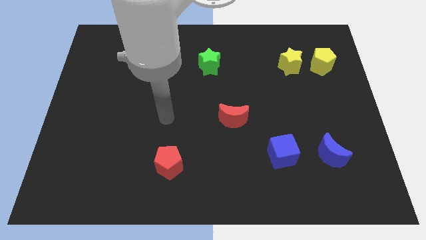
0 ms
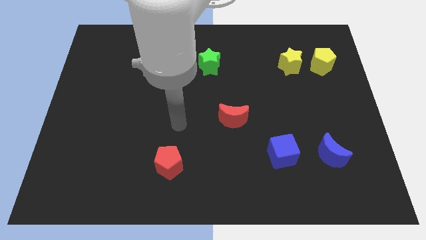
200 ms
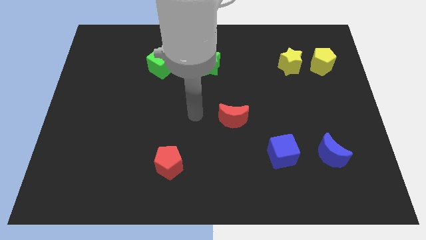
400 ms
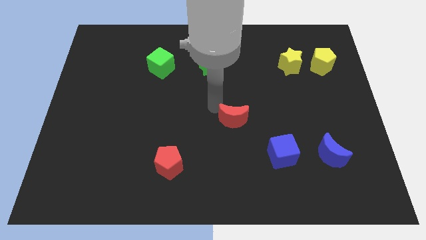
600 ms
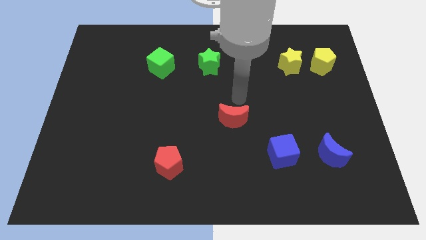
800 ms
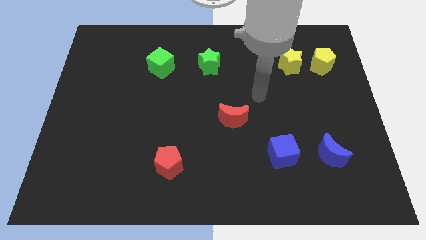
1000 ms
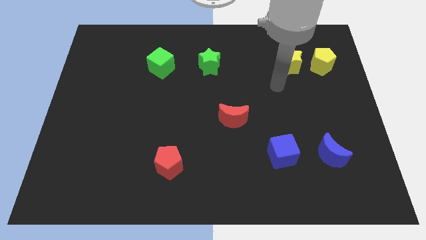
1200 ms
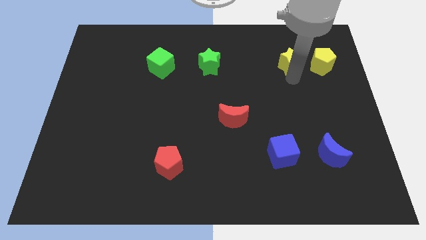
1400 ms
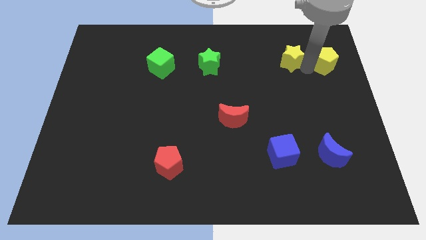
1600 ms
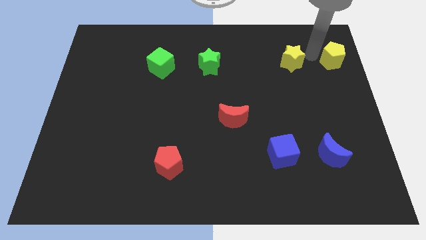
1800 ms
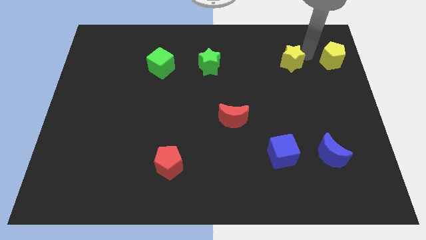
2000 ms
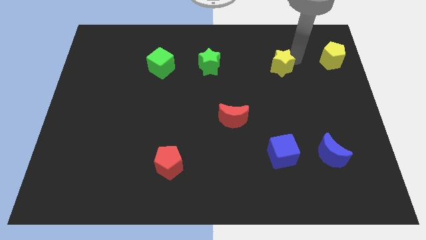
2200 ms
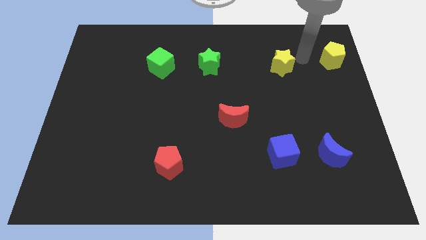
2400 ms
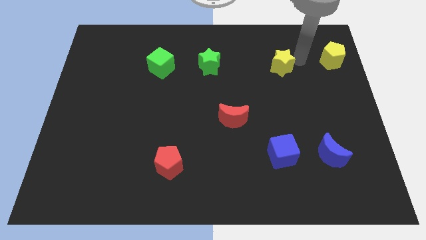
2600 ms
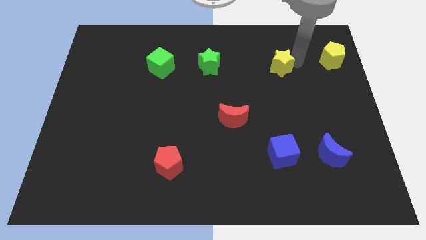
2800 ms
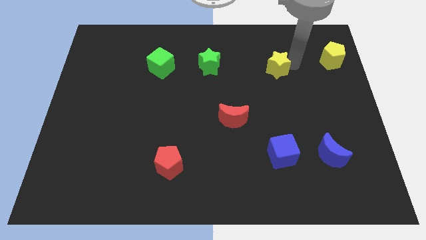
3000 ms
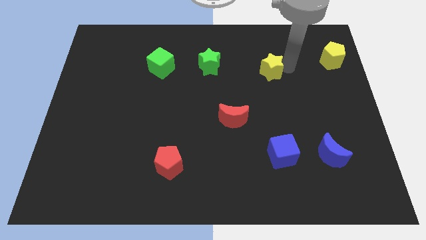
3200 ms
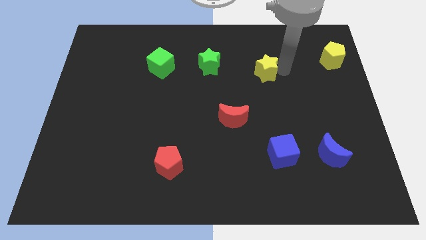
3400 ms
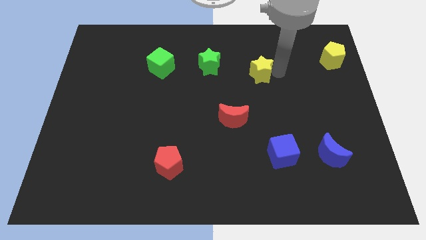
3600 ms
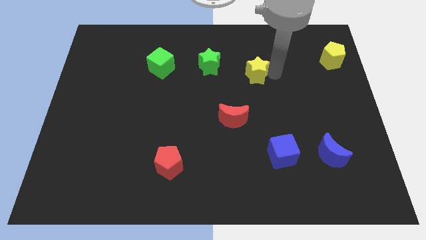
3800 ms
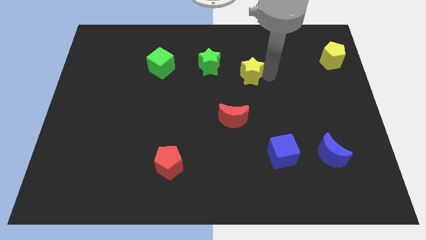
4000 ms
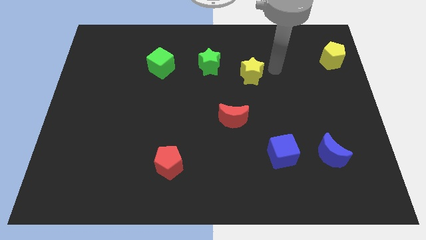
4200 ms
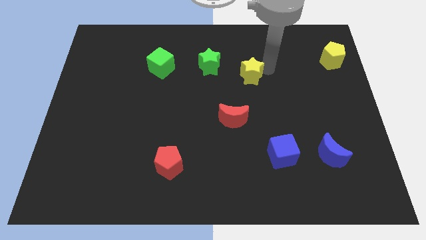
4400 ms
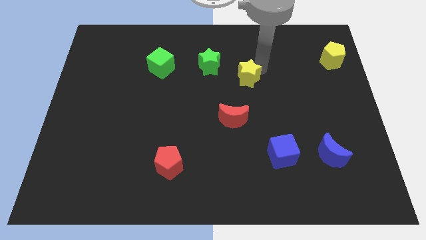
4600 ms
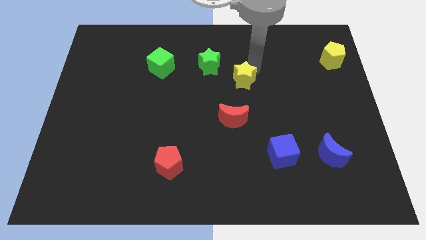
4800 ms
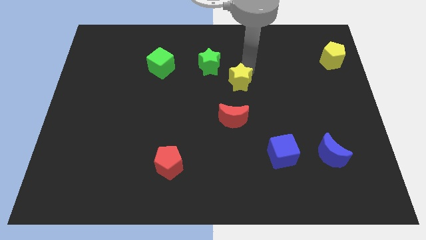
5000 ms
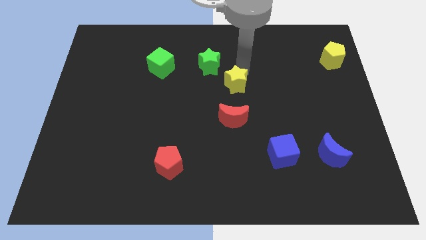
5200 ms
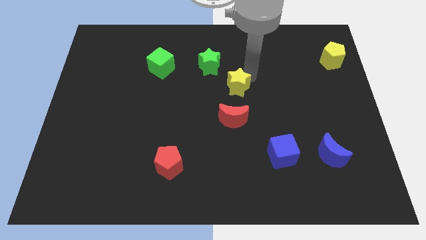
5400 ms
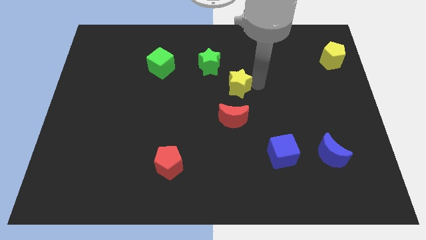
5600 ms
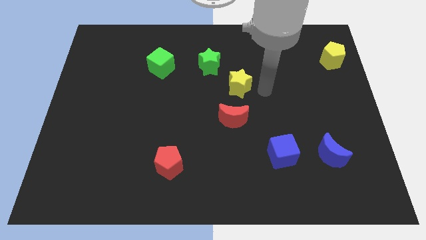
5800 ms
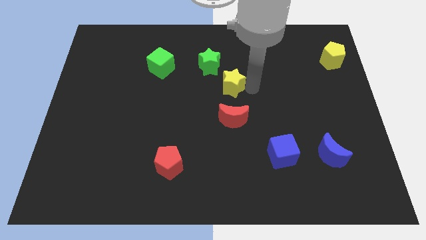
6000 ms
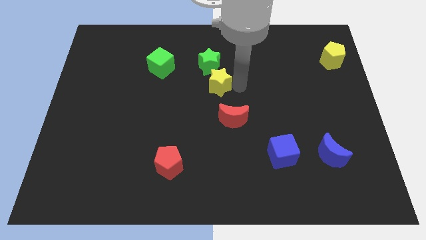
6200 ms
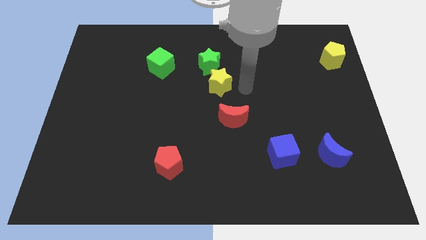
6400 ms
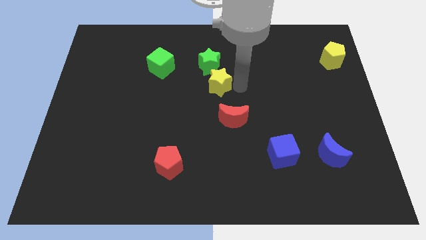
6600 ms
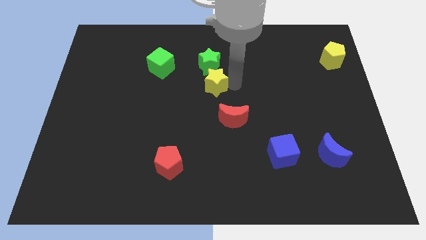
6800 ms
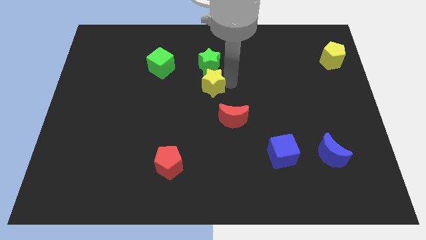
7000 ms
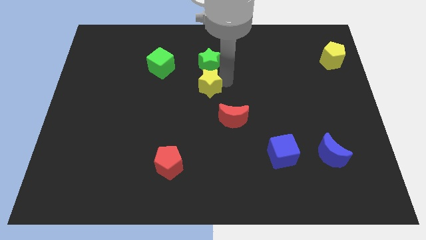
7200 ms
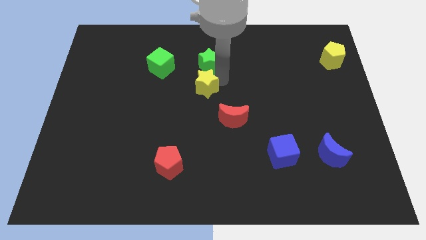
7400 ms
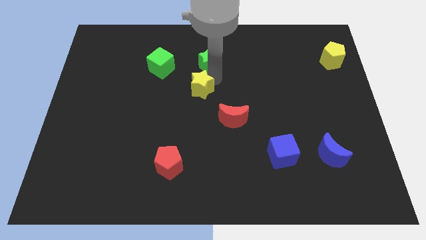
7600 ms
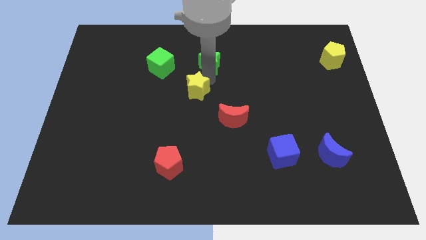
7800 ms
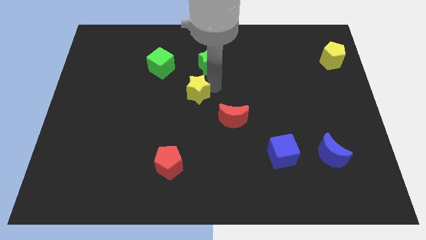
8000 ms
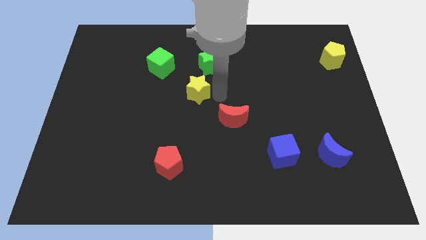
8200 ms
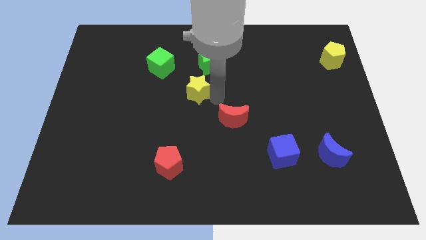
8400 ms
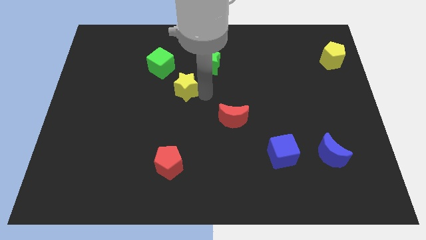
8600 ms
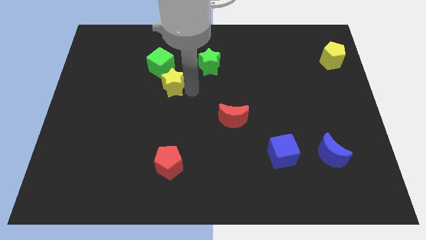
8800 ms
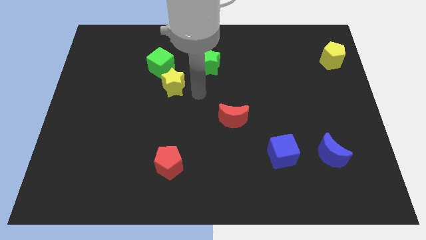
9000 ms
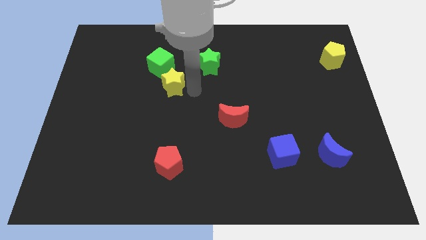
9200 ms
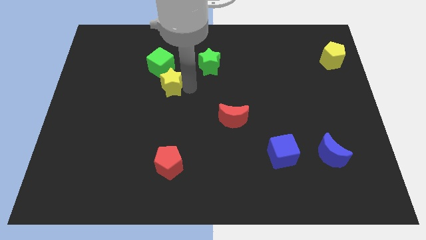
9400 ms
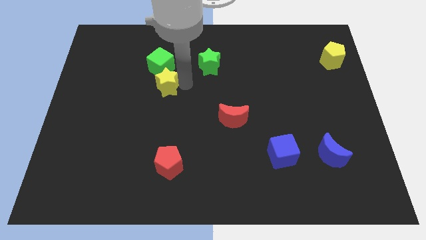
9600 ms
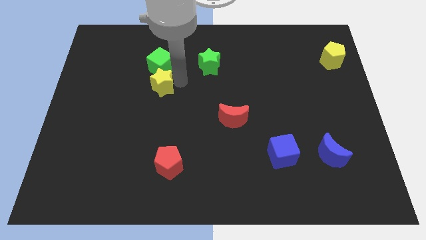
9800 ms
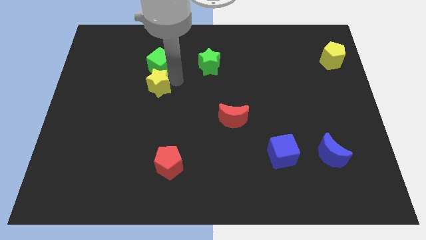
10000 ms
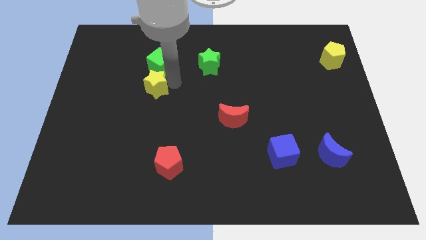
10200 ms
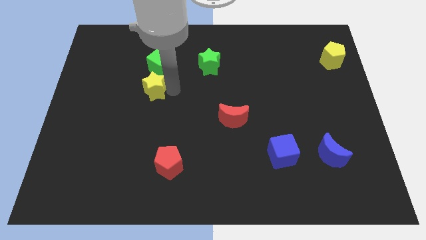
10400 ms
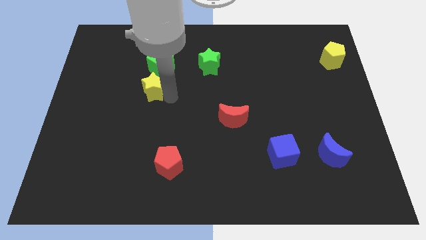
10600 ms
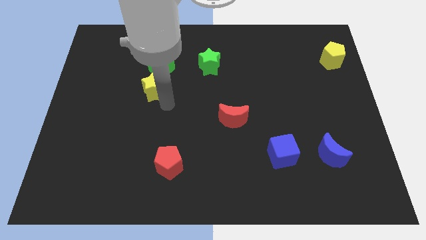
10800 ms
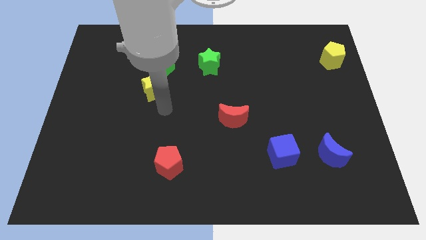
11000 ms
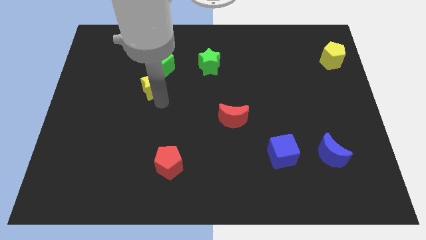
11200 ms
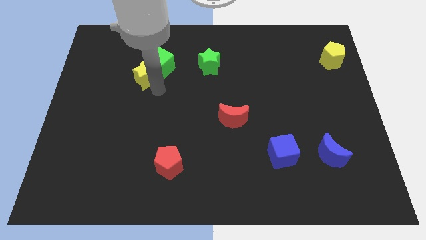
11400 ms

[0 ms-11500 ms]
put the yellow star left of the green cube

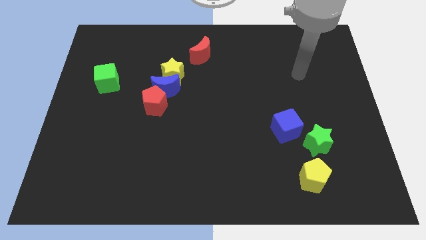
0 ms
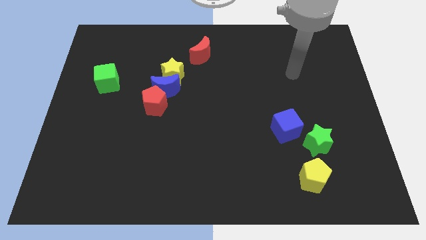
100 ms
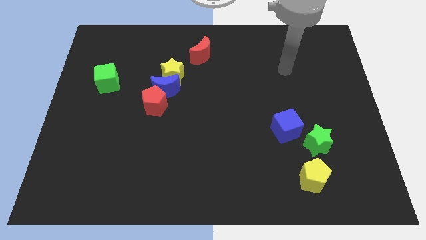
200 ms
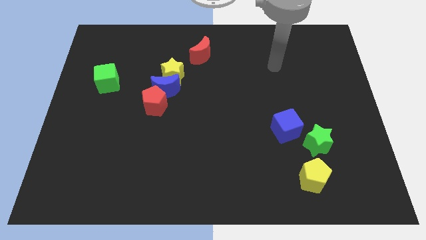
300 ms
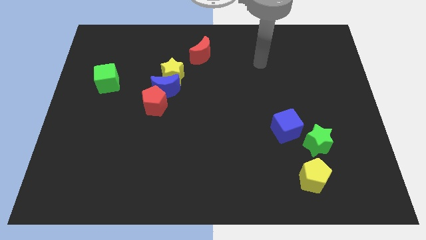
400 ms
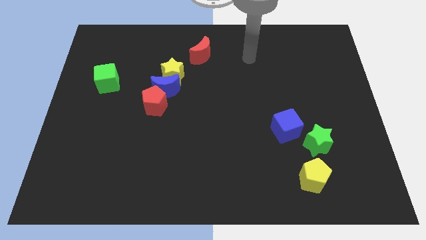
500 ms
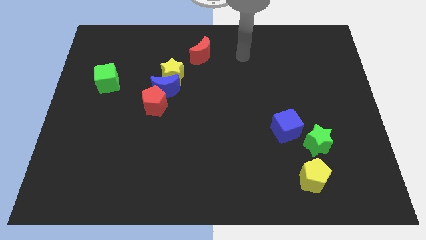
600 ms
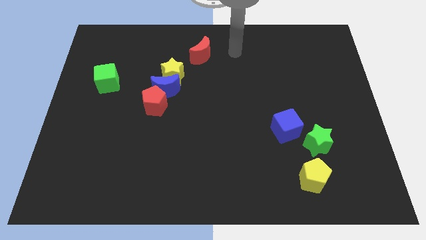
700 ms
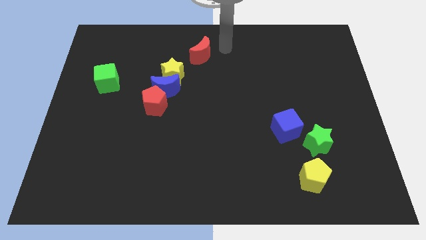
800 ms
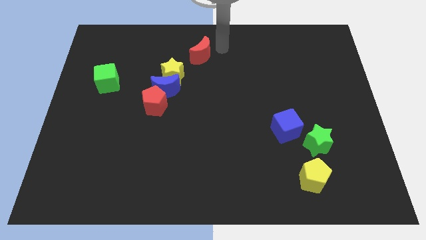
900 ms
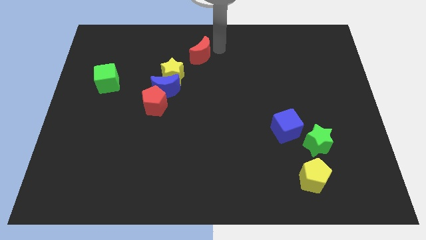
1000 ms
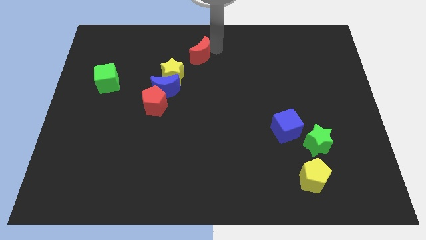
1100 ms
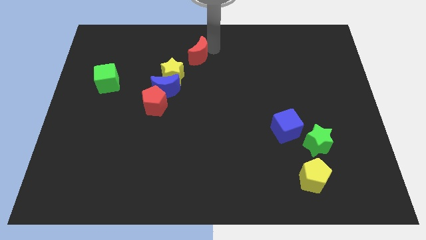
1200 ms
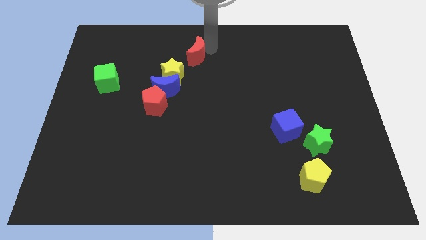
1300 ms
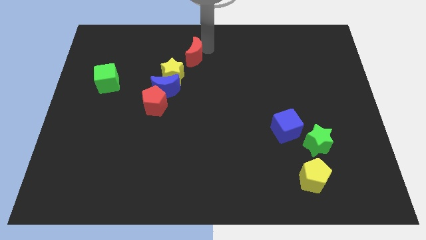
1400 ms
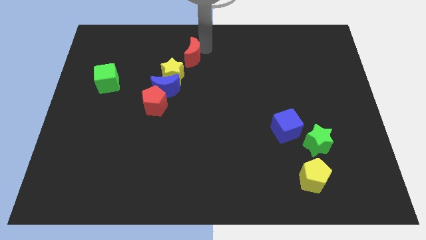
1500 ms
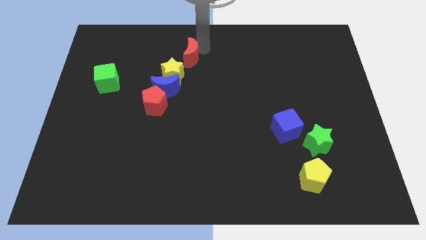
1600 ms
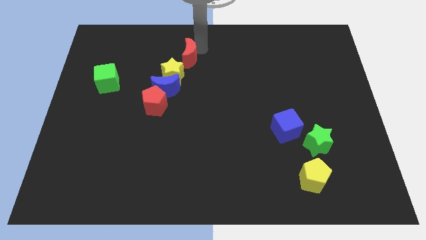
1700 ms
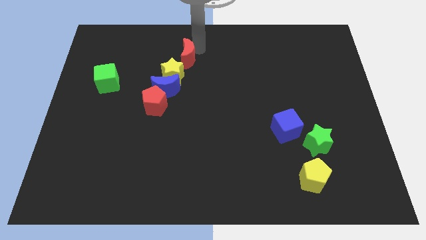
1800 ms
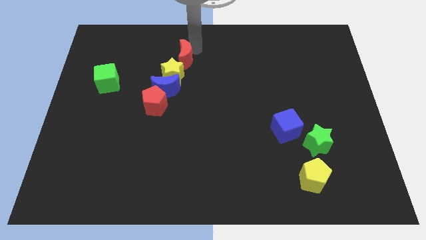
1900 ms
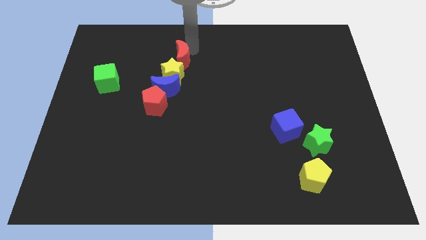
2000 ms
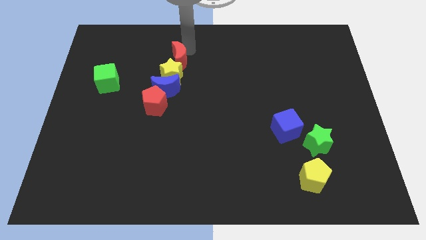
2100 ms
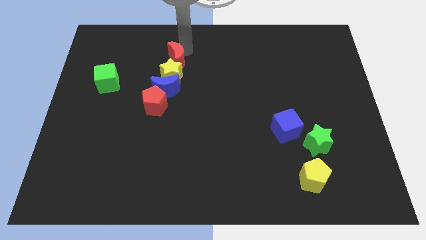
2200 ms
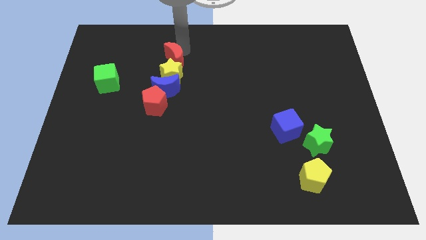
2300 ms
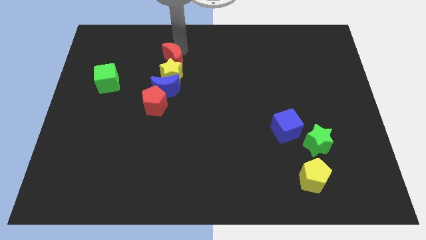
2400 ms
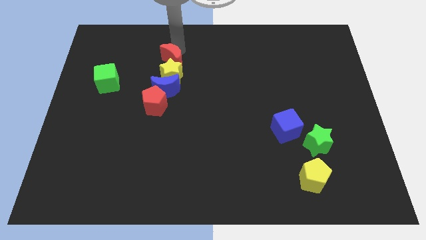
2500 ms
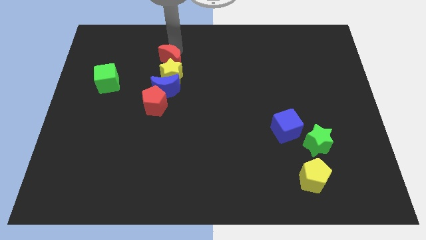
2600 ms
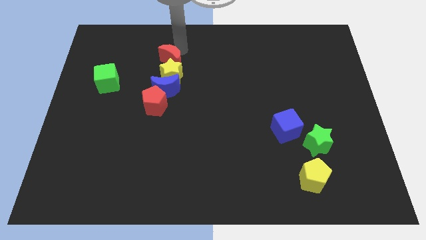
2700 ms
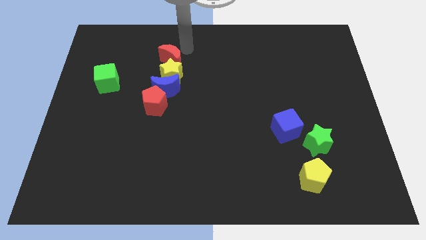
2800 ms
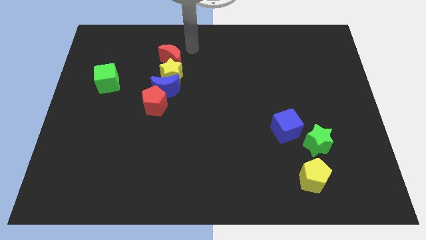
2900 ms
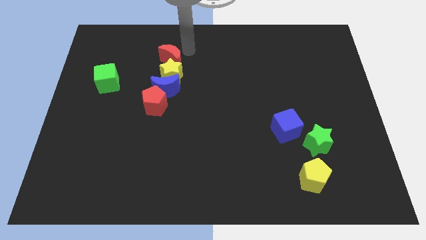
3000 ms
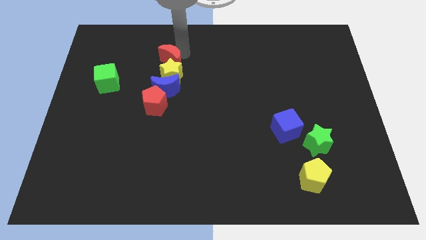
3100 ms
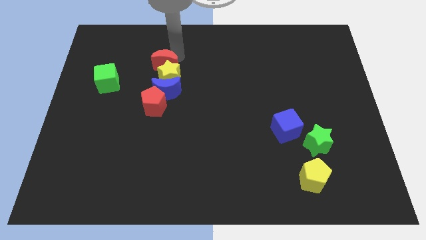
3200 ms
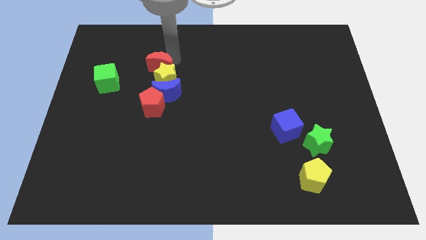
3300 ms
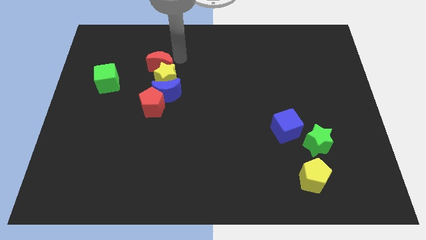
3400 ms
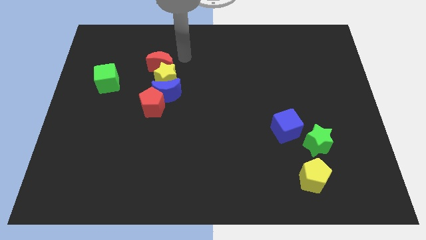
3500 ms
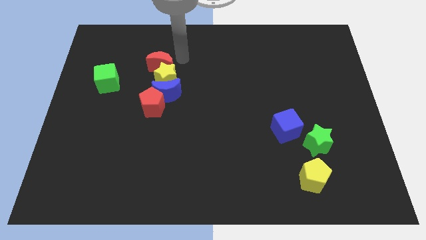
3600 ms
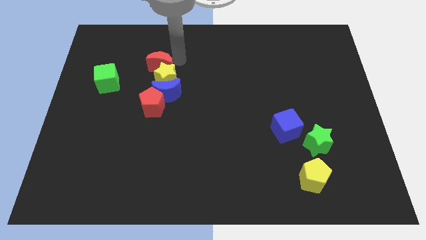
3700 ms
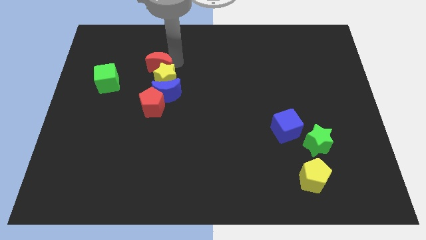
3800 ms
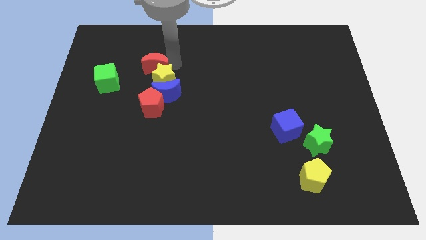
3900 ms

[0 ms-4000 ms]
move the red moon just left of the yellow star
